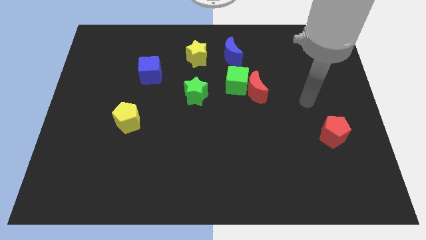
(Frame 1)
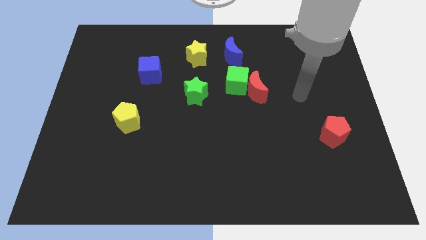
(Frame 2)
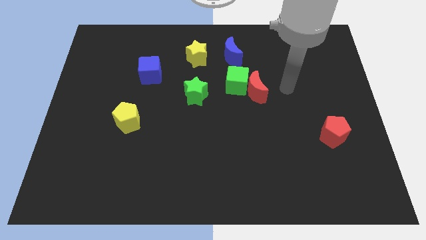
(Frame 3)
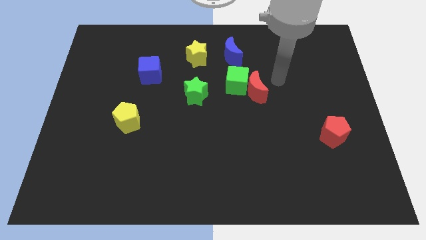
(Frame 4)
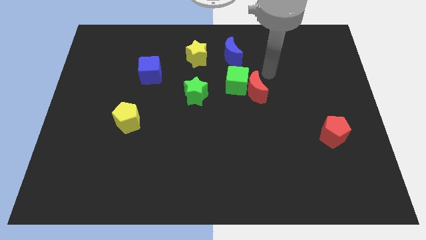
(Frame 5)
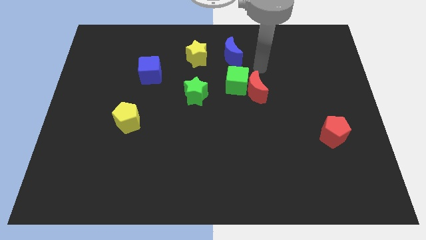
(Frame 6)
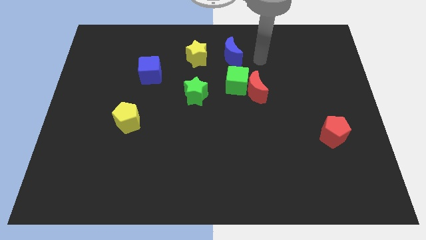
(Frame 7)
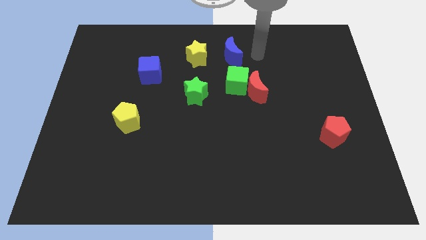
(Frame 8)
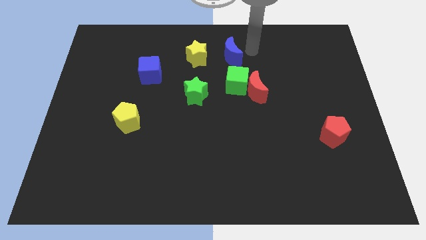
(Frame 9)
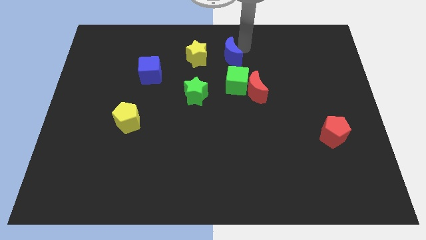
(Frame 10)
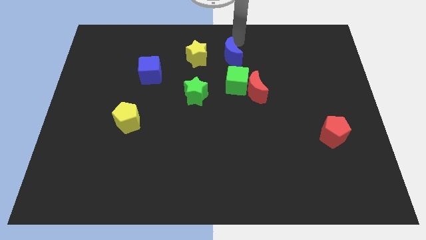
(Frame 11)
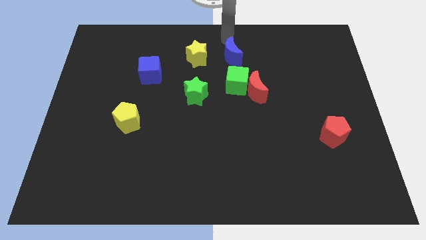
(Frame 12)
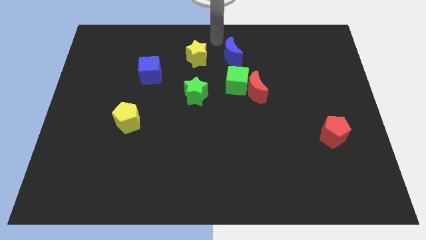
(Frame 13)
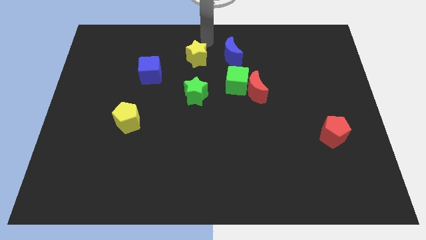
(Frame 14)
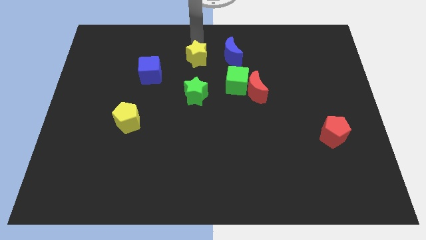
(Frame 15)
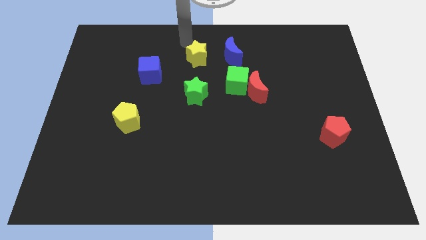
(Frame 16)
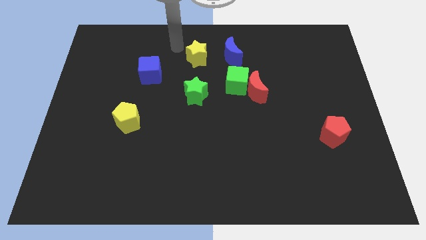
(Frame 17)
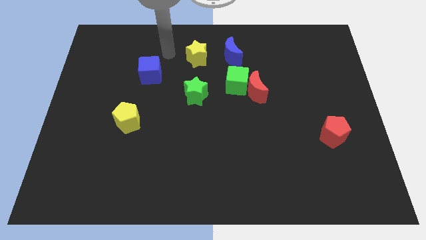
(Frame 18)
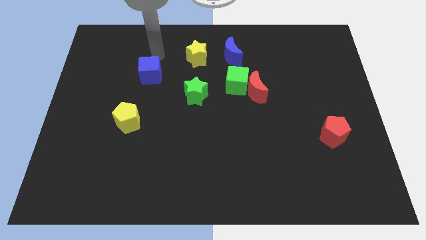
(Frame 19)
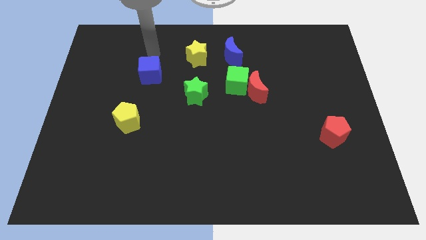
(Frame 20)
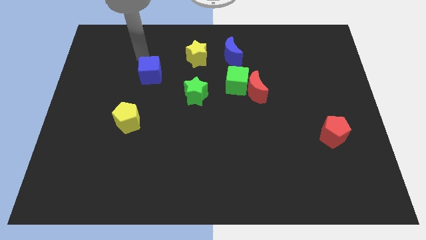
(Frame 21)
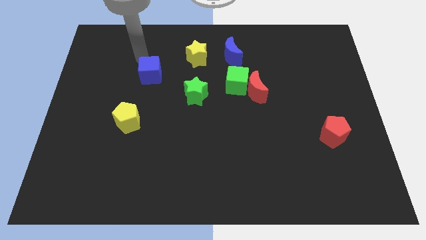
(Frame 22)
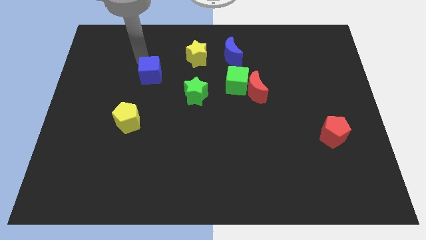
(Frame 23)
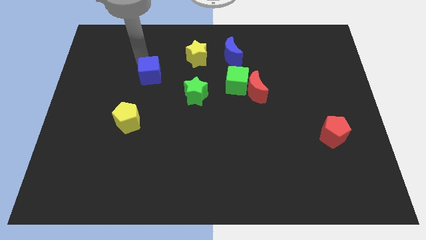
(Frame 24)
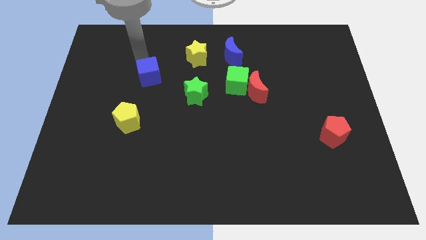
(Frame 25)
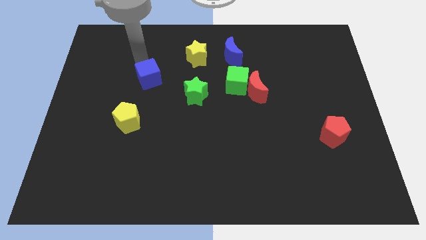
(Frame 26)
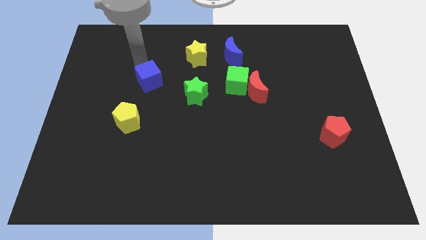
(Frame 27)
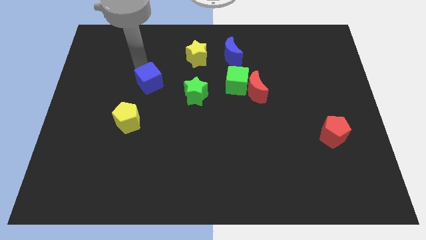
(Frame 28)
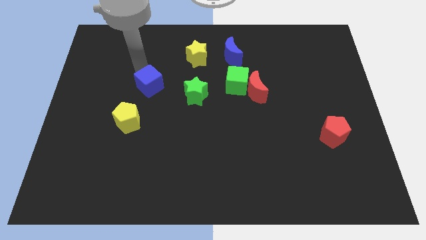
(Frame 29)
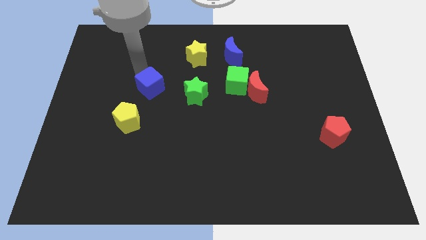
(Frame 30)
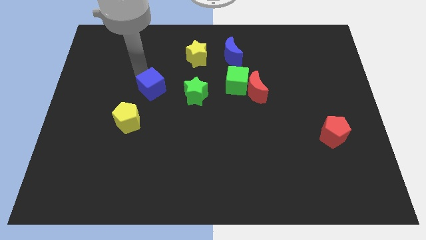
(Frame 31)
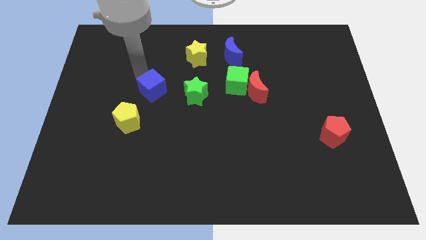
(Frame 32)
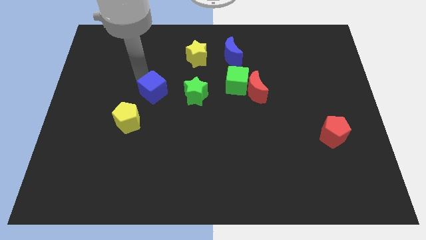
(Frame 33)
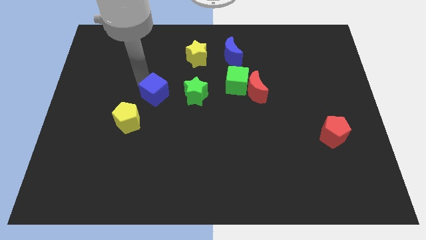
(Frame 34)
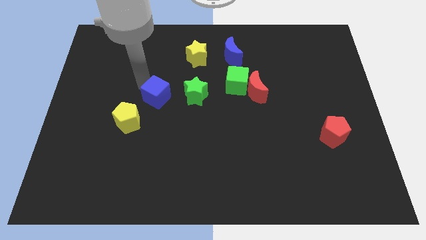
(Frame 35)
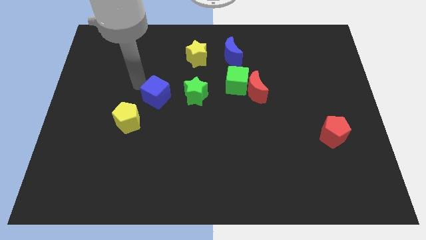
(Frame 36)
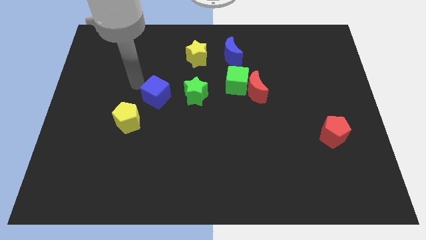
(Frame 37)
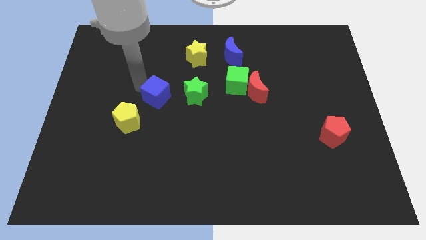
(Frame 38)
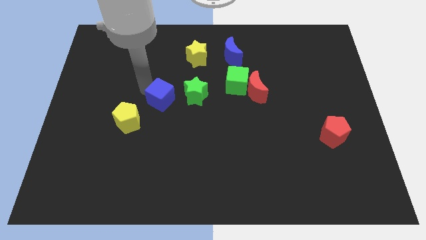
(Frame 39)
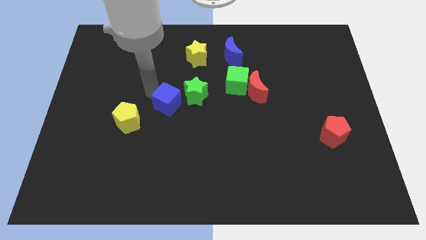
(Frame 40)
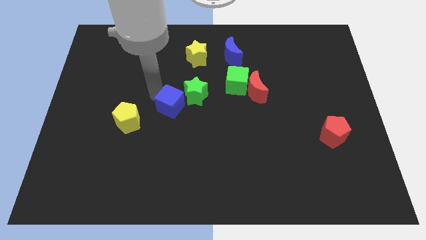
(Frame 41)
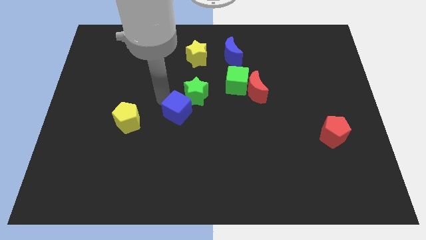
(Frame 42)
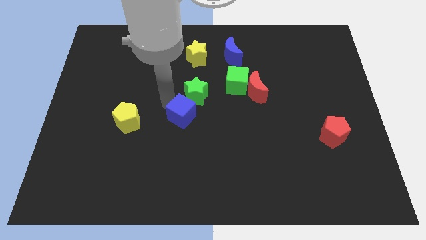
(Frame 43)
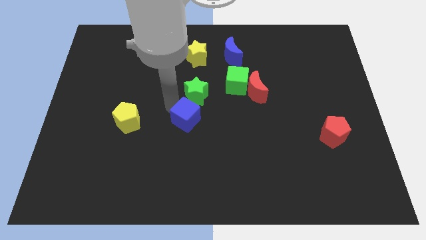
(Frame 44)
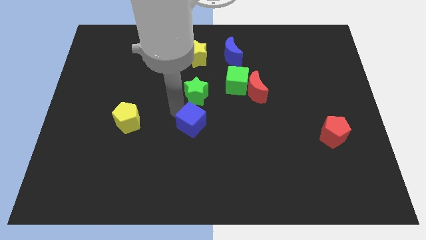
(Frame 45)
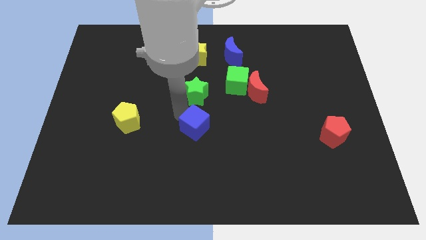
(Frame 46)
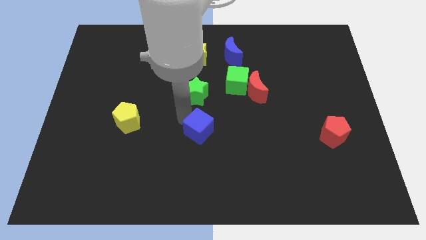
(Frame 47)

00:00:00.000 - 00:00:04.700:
push the blue cube downwards and right

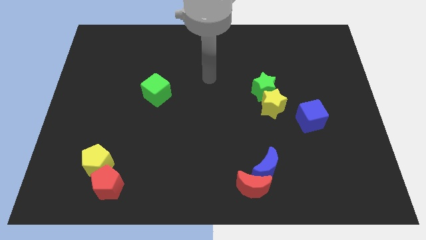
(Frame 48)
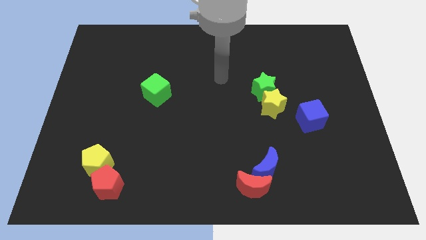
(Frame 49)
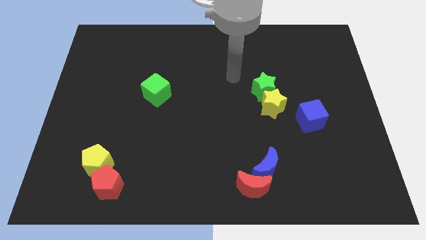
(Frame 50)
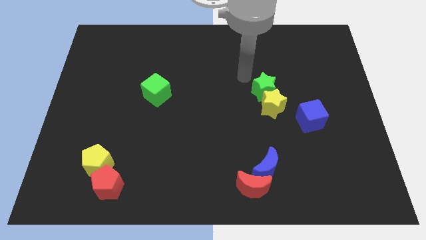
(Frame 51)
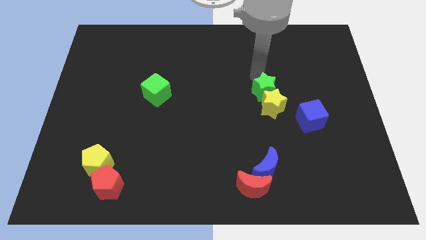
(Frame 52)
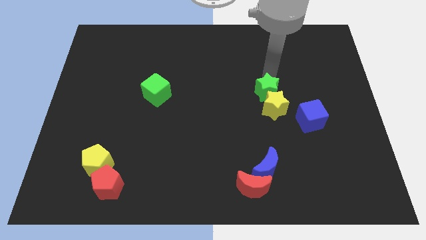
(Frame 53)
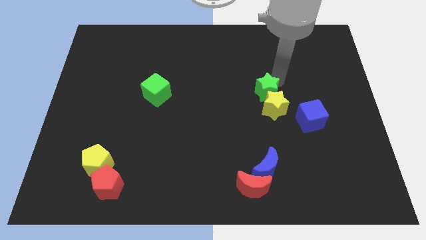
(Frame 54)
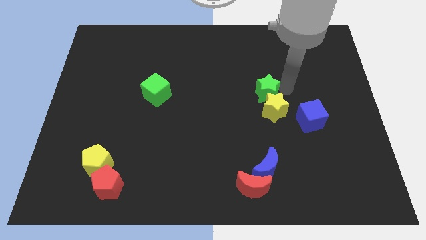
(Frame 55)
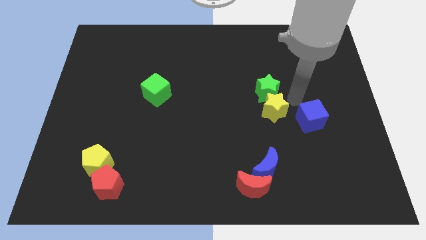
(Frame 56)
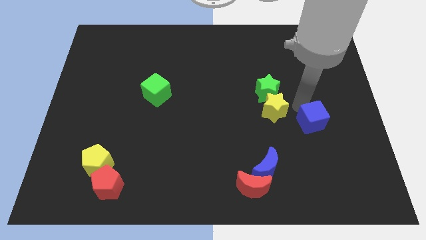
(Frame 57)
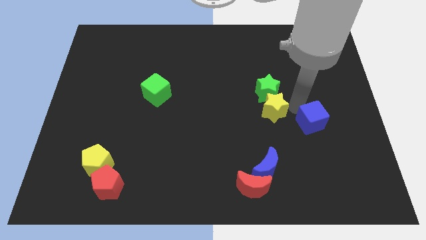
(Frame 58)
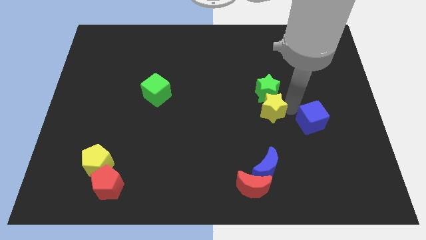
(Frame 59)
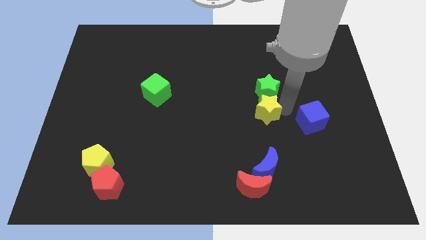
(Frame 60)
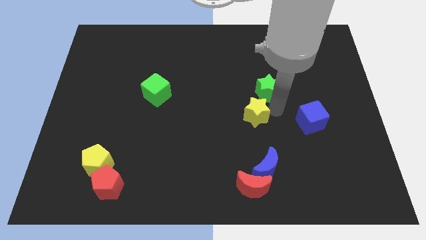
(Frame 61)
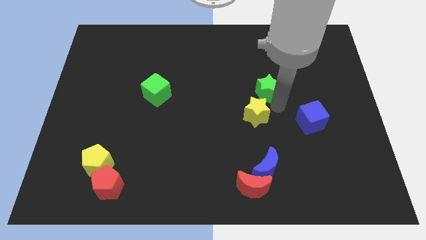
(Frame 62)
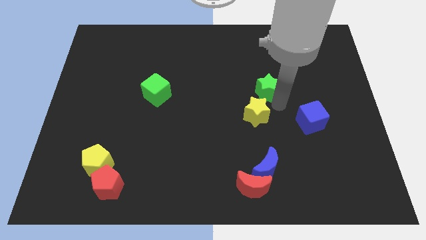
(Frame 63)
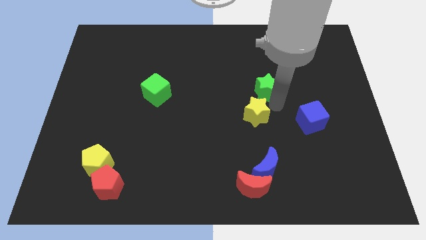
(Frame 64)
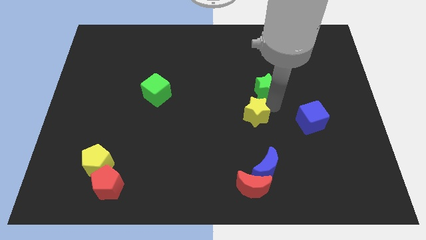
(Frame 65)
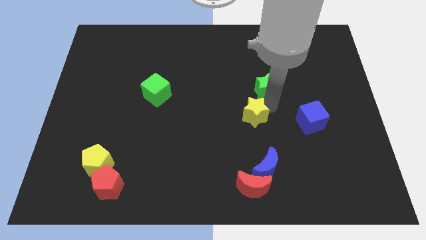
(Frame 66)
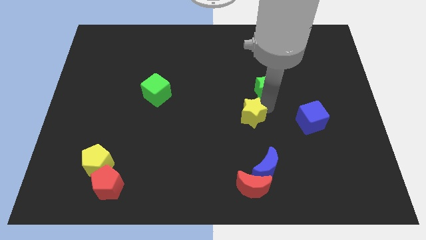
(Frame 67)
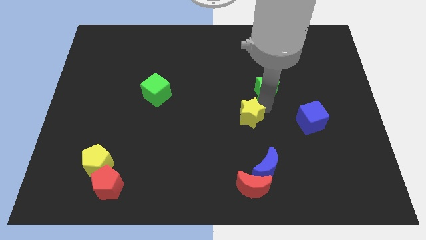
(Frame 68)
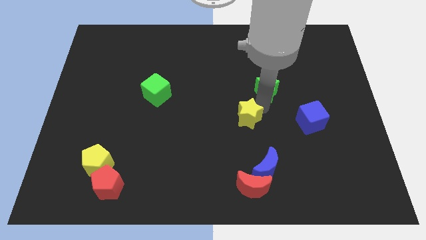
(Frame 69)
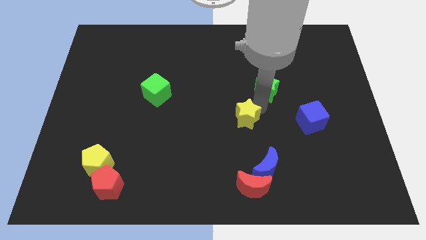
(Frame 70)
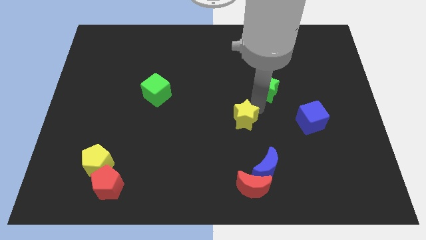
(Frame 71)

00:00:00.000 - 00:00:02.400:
slightly slide the yellow star downwards and to the left

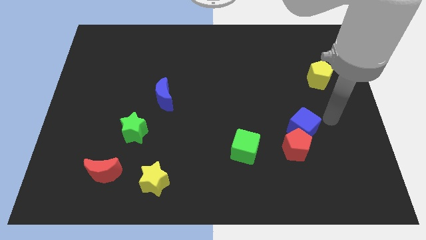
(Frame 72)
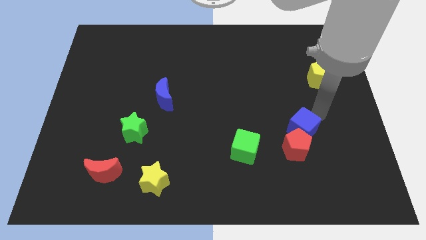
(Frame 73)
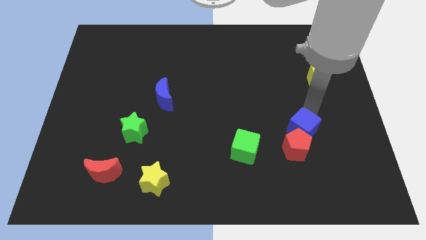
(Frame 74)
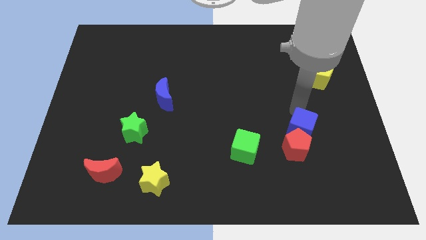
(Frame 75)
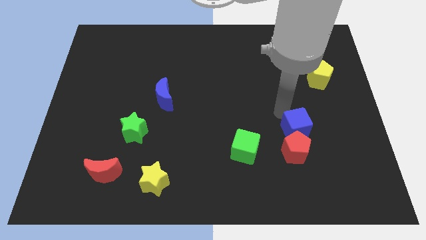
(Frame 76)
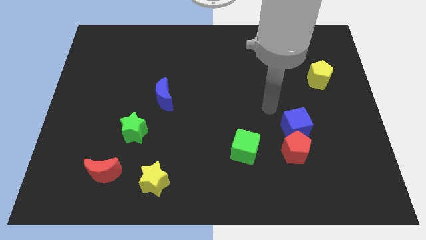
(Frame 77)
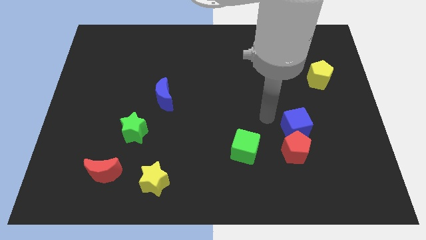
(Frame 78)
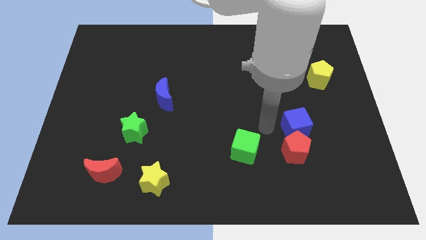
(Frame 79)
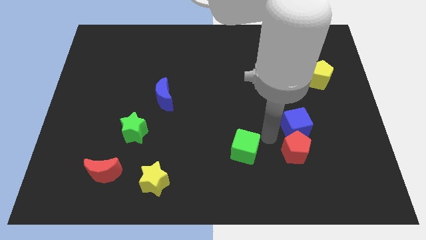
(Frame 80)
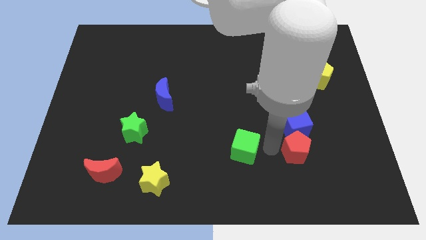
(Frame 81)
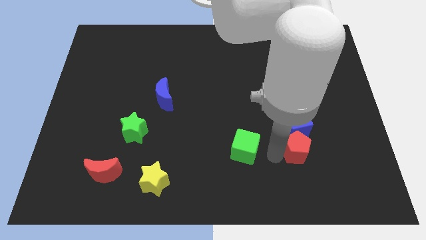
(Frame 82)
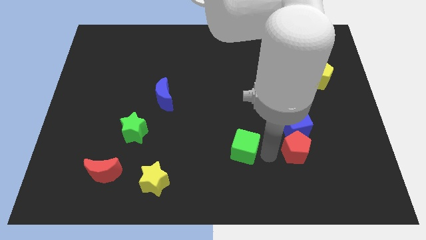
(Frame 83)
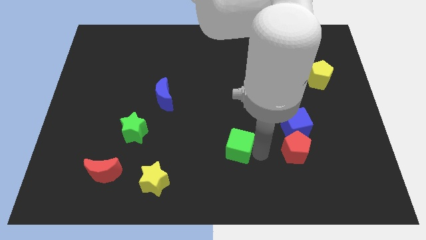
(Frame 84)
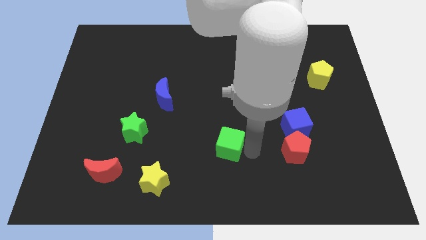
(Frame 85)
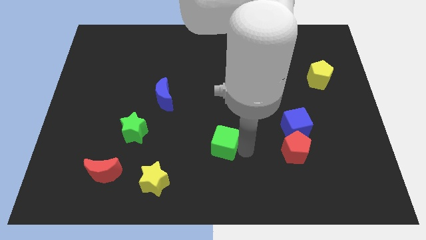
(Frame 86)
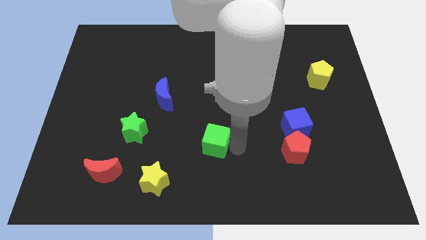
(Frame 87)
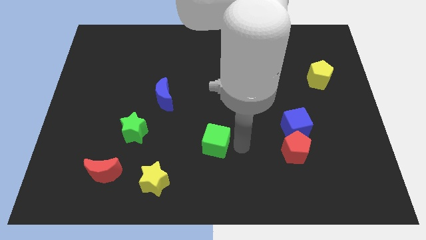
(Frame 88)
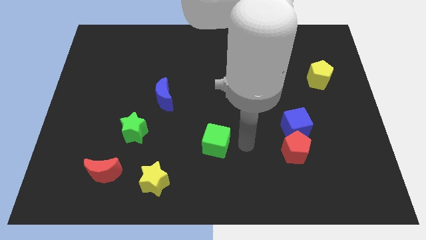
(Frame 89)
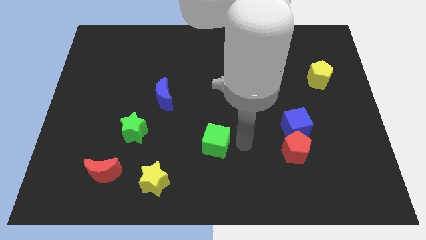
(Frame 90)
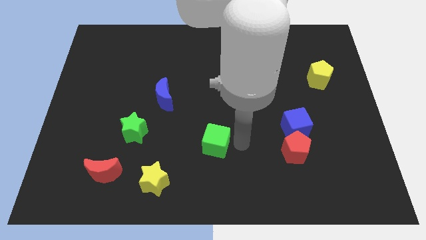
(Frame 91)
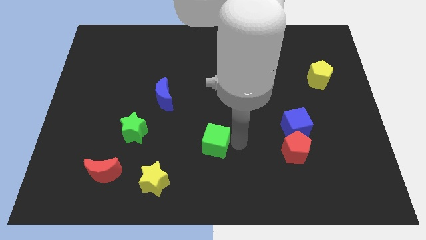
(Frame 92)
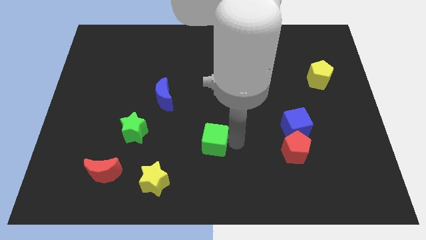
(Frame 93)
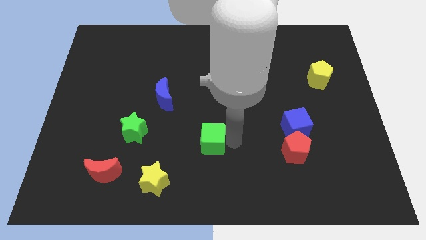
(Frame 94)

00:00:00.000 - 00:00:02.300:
slightly move the green cube left
